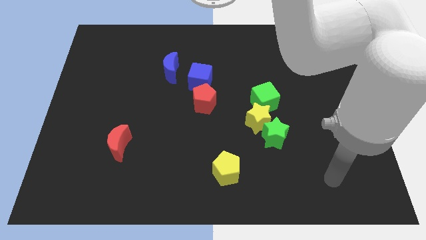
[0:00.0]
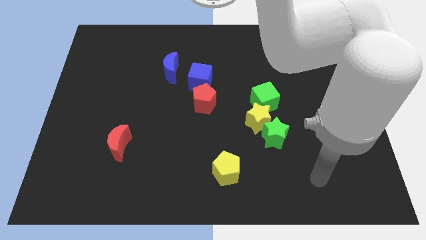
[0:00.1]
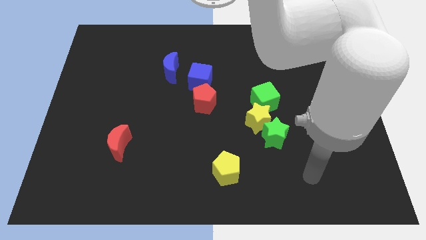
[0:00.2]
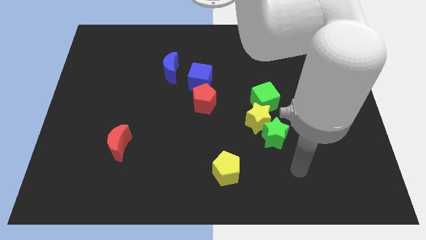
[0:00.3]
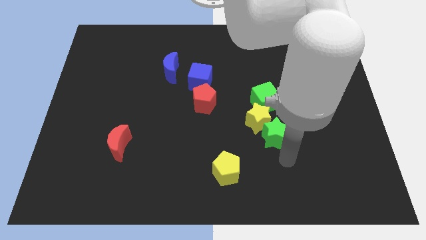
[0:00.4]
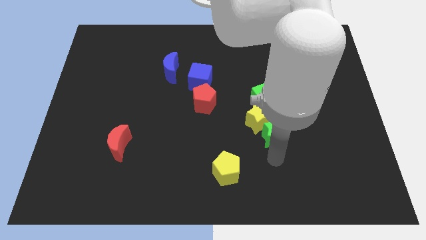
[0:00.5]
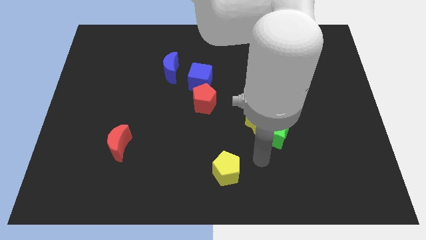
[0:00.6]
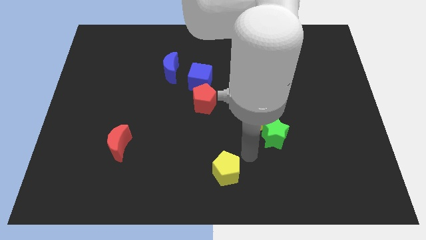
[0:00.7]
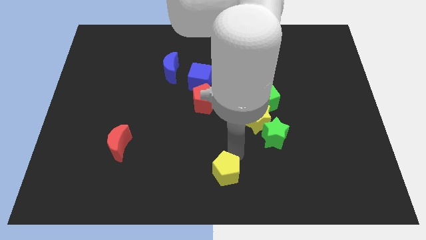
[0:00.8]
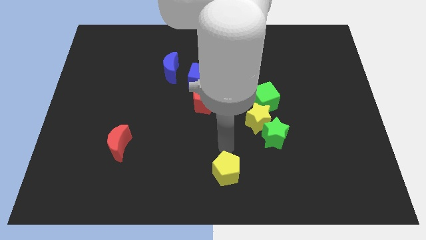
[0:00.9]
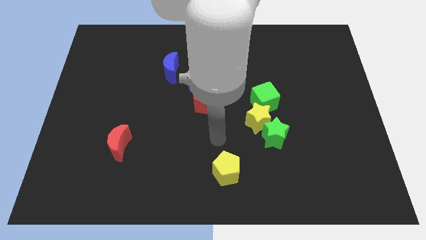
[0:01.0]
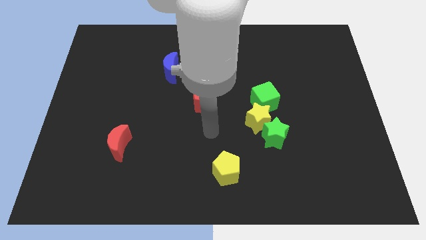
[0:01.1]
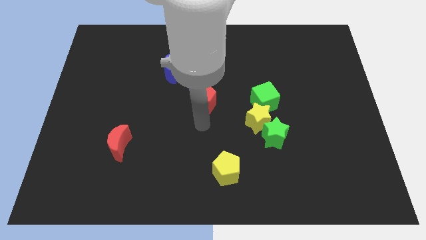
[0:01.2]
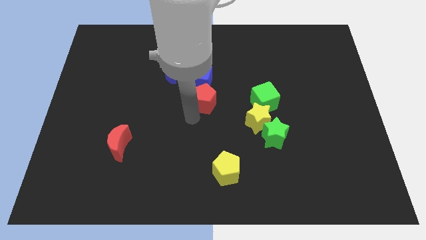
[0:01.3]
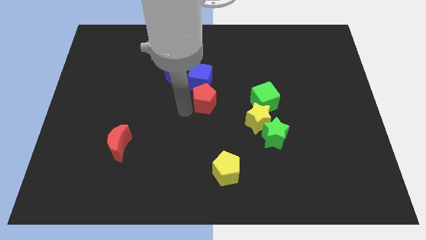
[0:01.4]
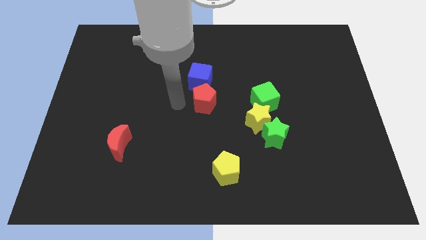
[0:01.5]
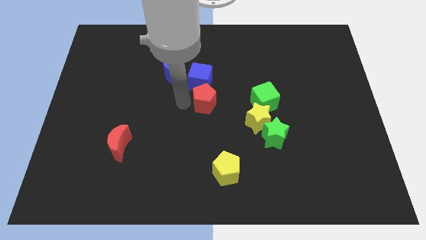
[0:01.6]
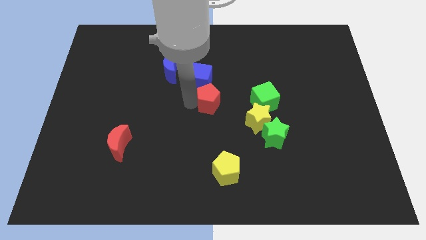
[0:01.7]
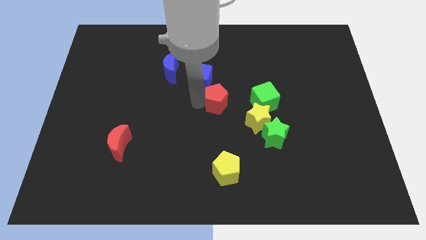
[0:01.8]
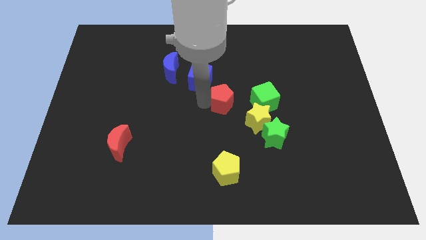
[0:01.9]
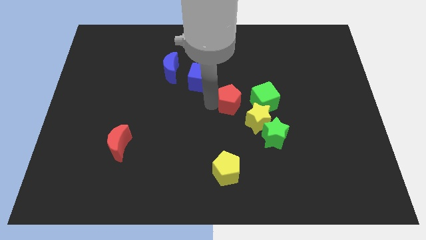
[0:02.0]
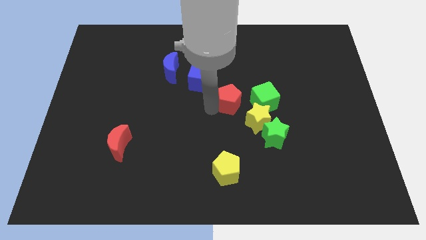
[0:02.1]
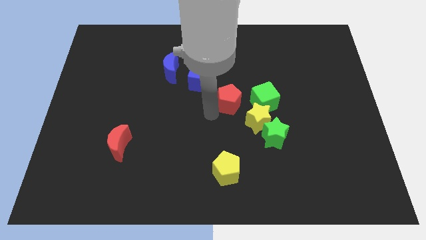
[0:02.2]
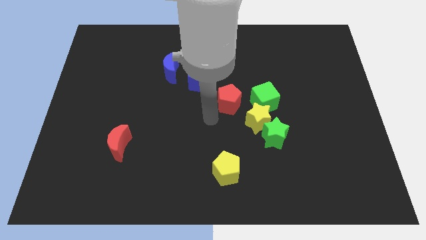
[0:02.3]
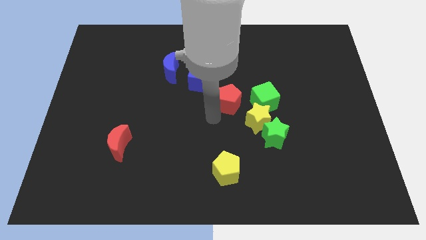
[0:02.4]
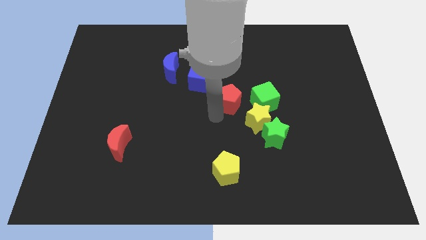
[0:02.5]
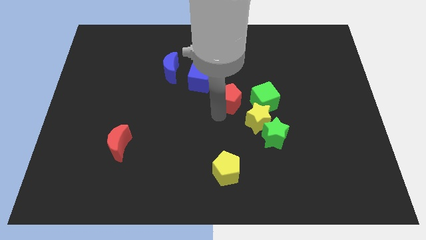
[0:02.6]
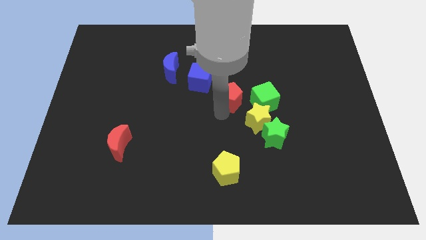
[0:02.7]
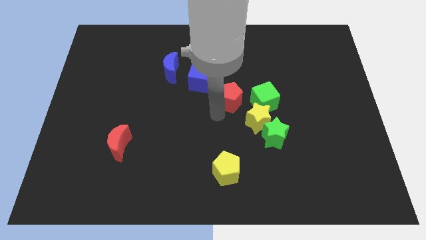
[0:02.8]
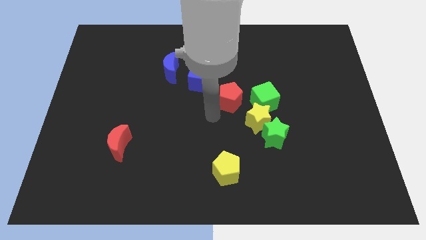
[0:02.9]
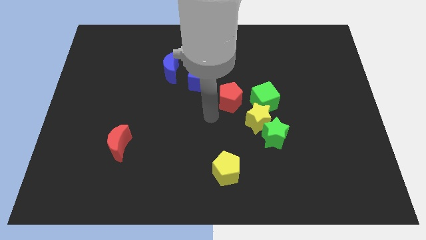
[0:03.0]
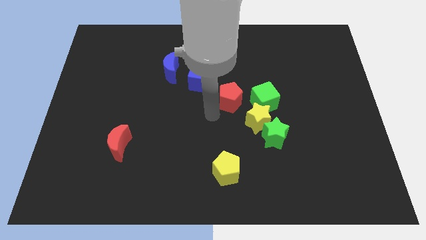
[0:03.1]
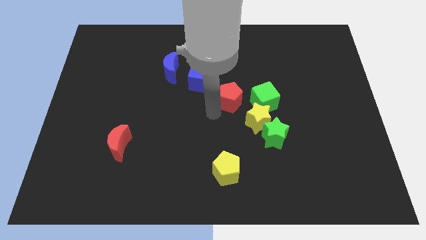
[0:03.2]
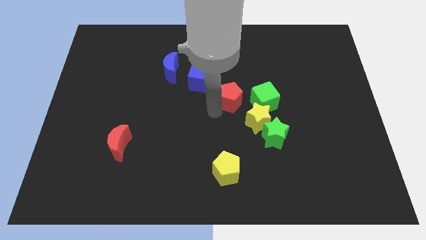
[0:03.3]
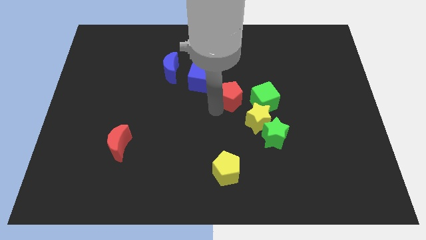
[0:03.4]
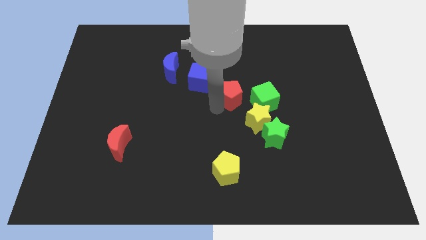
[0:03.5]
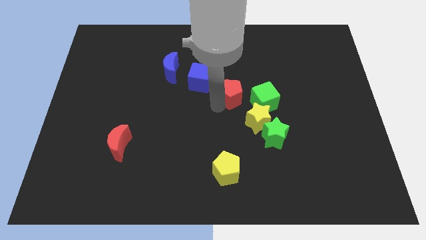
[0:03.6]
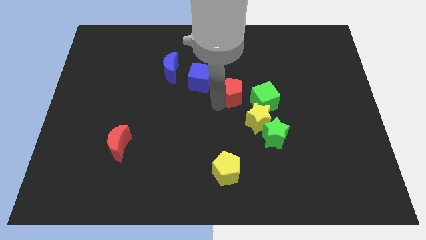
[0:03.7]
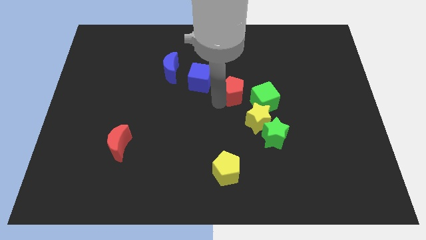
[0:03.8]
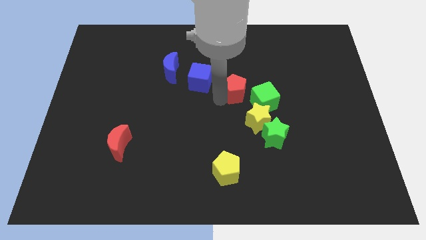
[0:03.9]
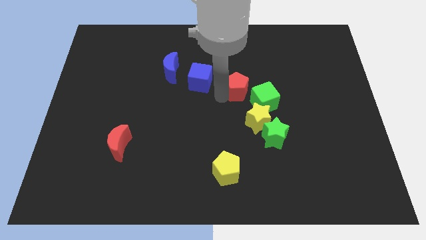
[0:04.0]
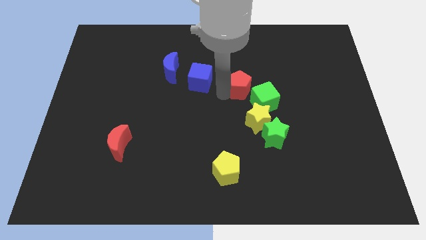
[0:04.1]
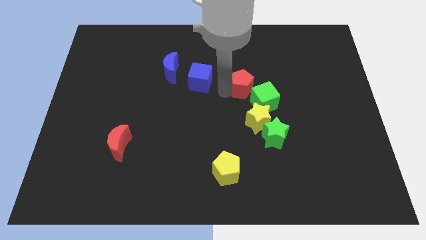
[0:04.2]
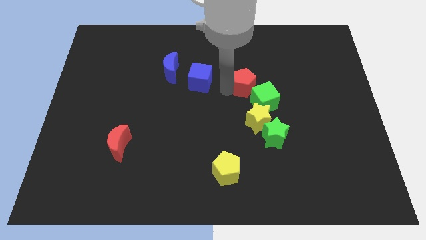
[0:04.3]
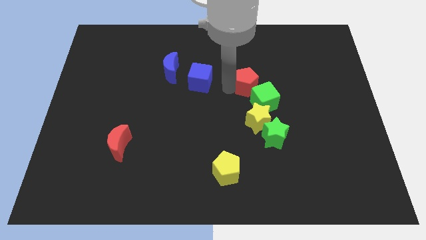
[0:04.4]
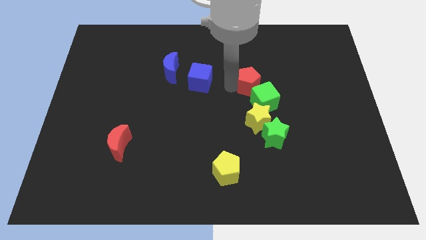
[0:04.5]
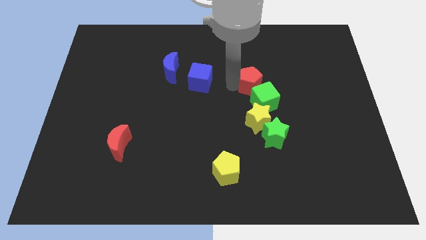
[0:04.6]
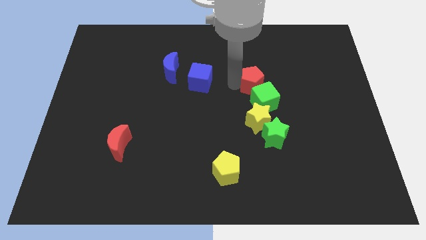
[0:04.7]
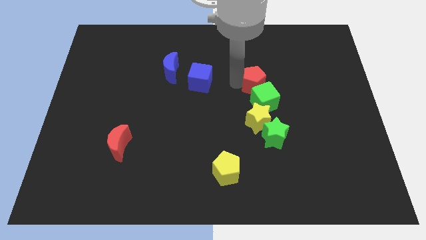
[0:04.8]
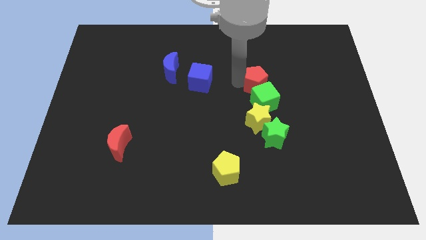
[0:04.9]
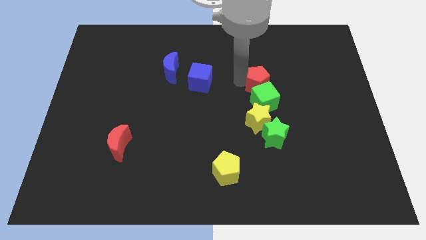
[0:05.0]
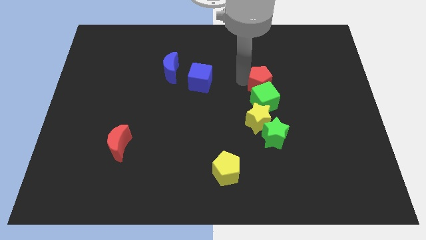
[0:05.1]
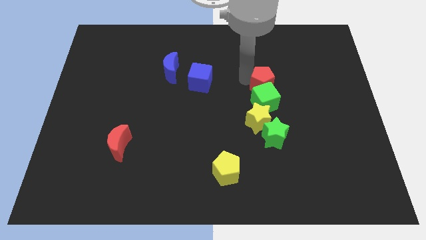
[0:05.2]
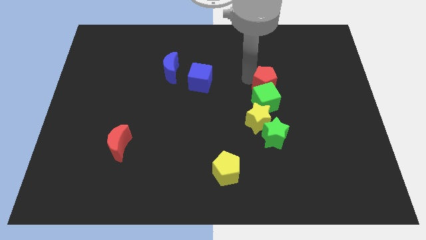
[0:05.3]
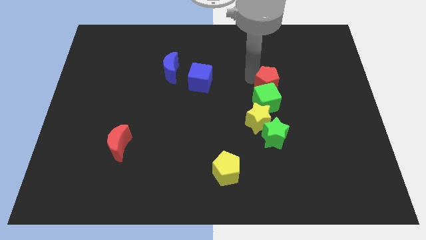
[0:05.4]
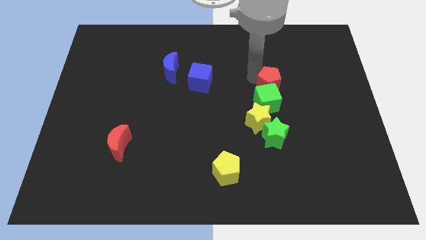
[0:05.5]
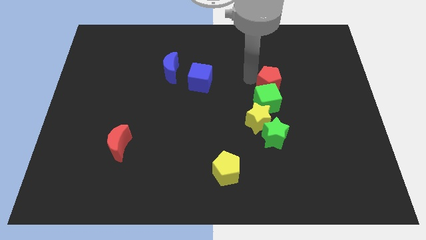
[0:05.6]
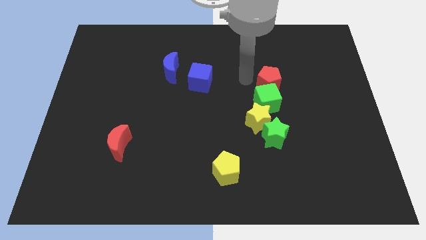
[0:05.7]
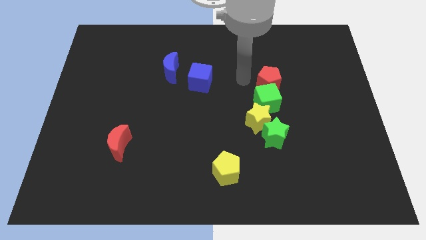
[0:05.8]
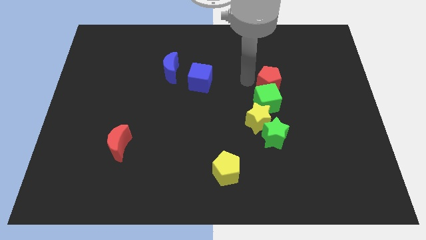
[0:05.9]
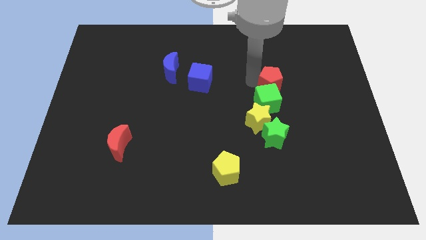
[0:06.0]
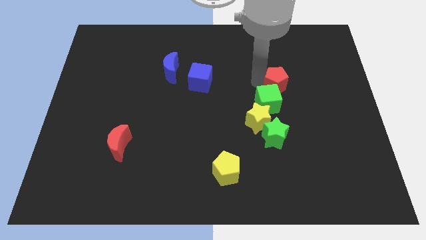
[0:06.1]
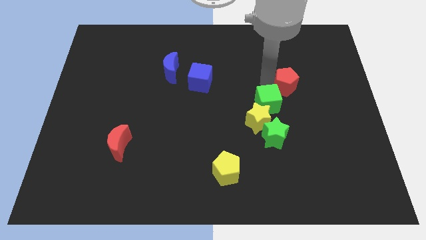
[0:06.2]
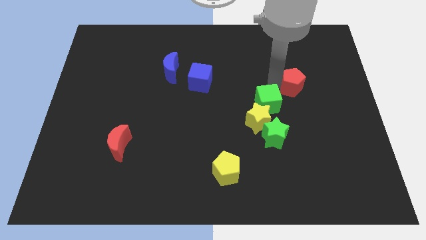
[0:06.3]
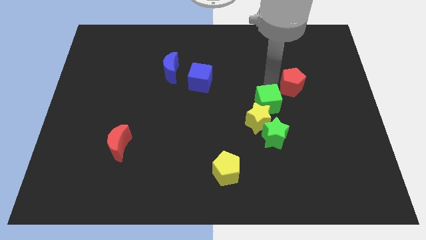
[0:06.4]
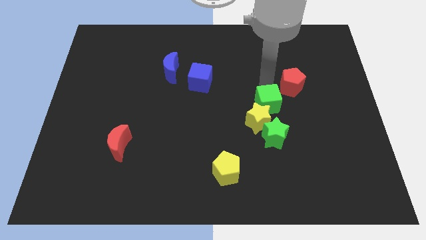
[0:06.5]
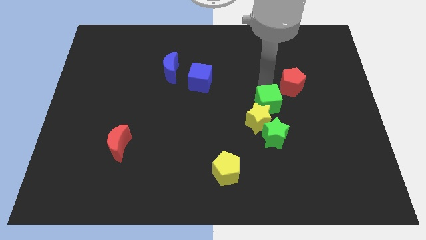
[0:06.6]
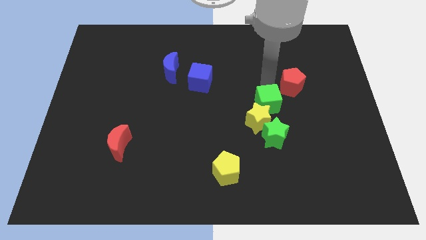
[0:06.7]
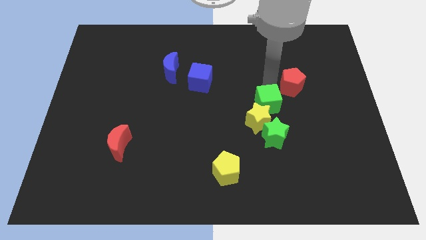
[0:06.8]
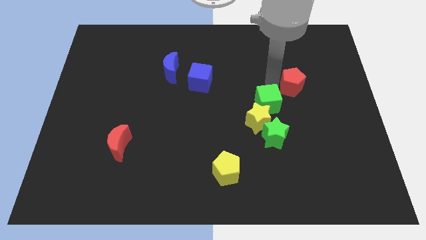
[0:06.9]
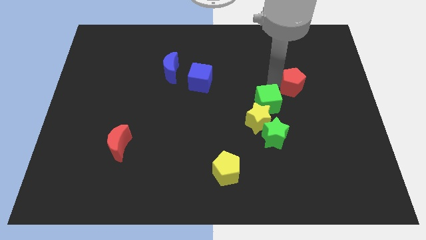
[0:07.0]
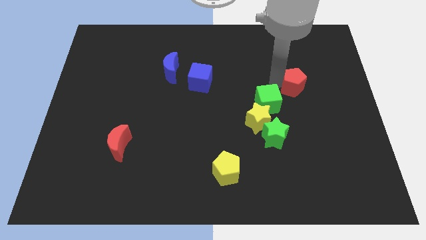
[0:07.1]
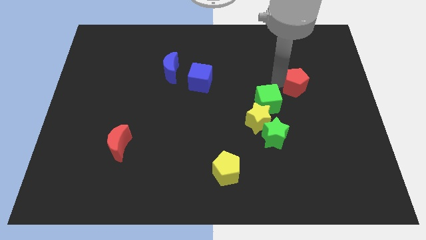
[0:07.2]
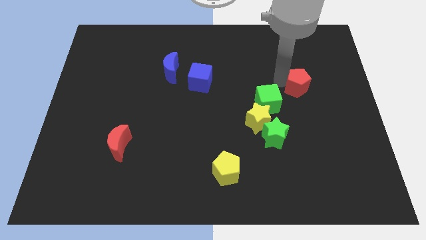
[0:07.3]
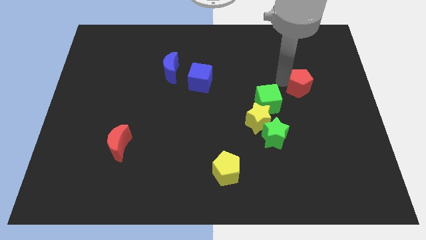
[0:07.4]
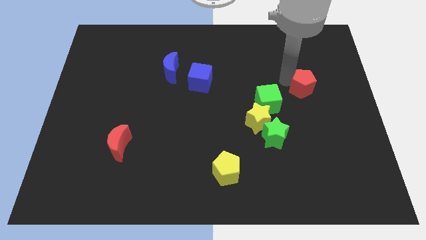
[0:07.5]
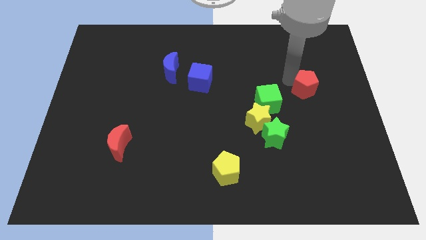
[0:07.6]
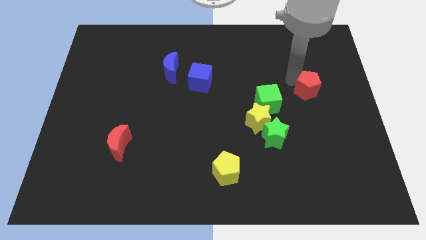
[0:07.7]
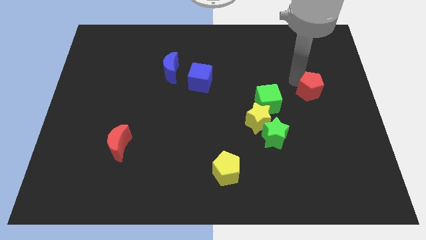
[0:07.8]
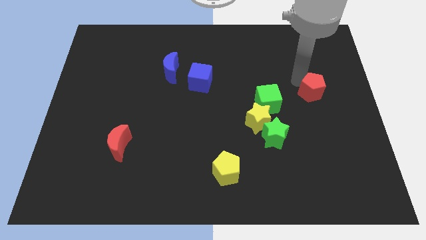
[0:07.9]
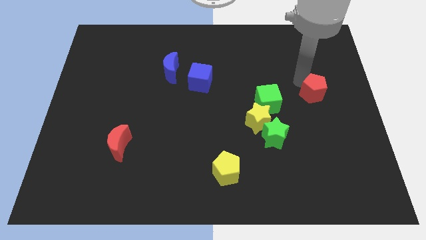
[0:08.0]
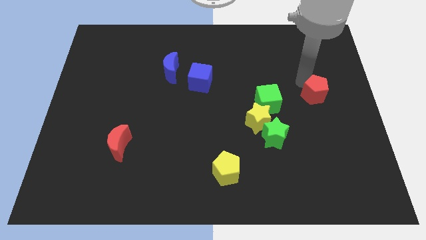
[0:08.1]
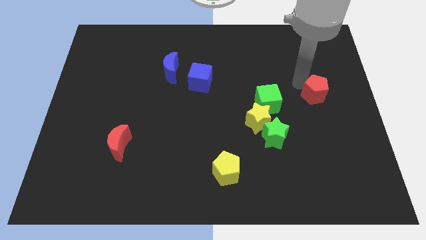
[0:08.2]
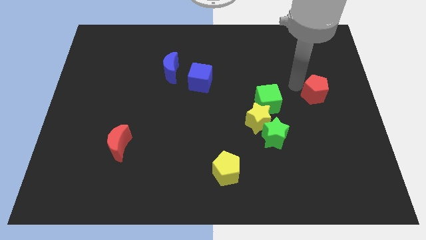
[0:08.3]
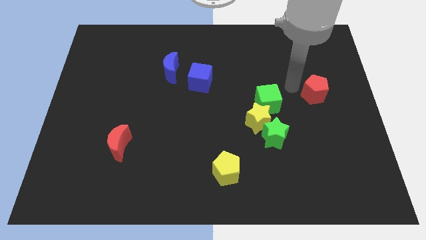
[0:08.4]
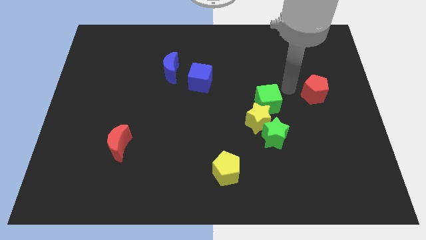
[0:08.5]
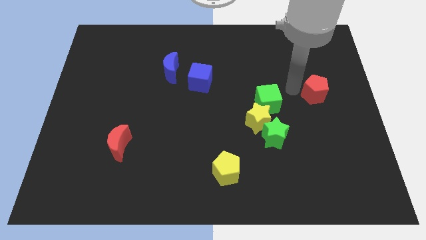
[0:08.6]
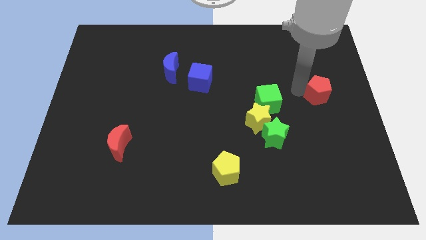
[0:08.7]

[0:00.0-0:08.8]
put the red pentagon to the center right
